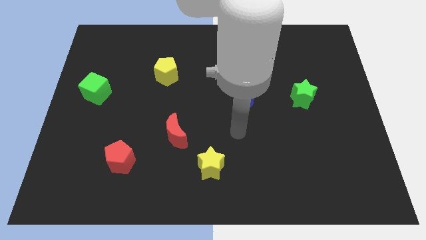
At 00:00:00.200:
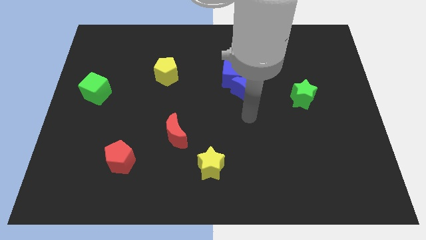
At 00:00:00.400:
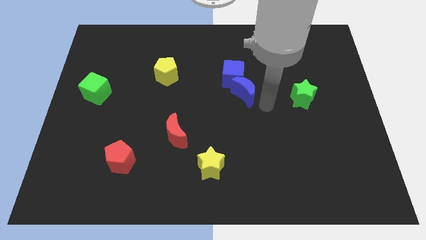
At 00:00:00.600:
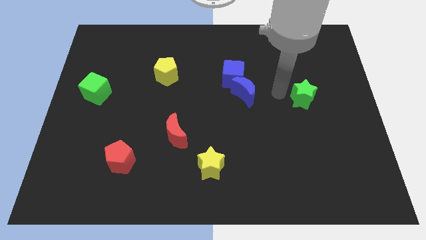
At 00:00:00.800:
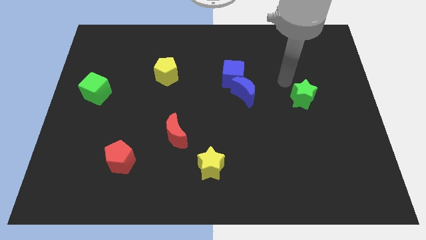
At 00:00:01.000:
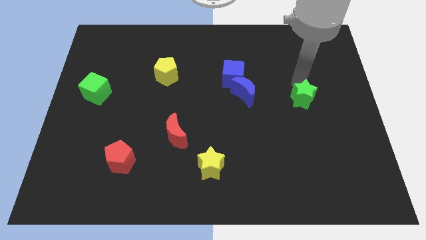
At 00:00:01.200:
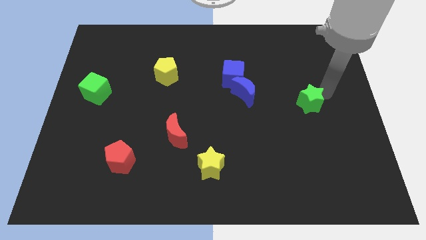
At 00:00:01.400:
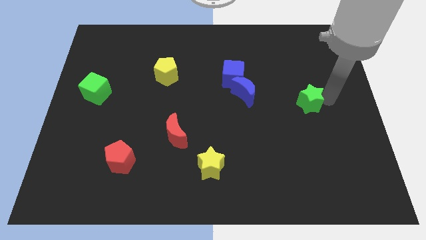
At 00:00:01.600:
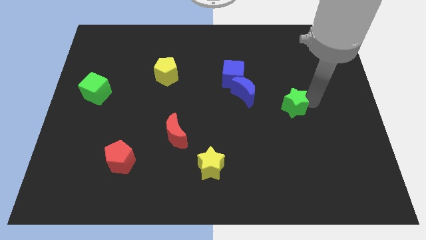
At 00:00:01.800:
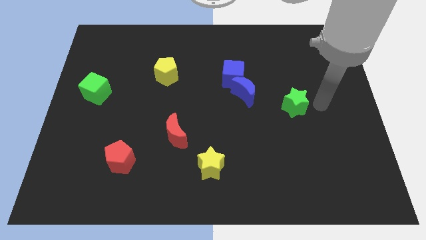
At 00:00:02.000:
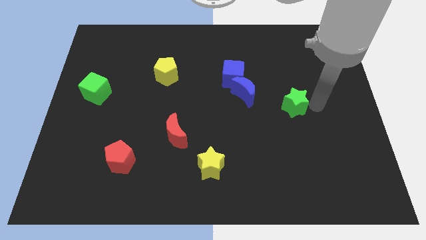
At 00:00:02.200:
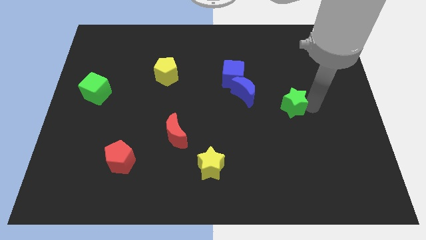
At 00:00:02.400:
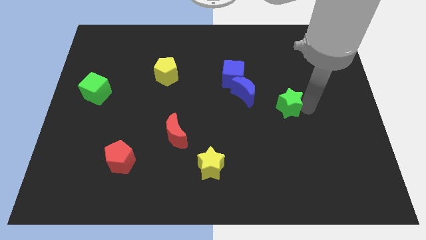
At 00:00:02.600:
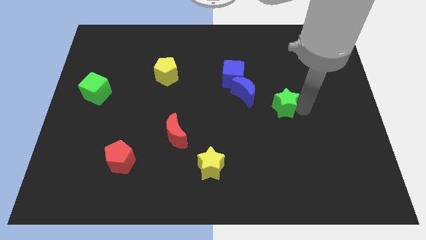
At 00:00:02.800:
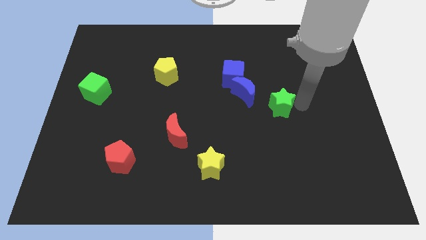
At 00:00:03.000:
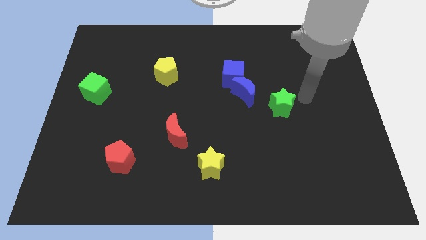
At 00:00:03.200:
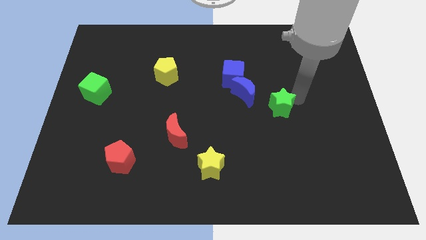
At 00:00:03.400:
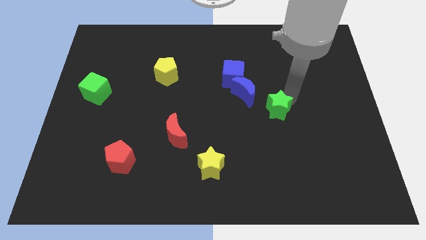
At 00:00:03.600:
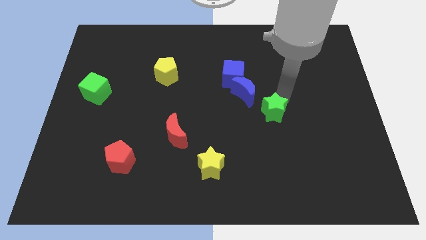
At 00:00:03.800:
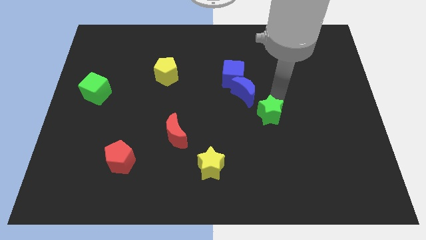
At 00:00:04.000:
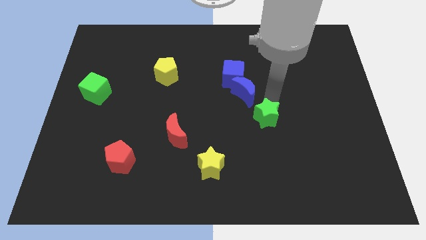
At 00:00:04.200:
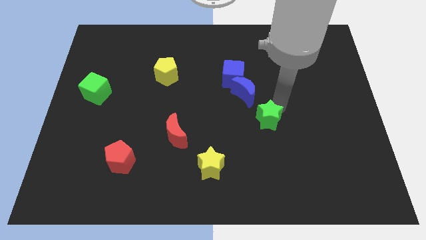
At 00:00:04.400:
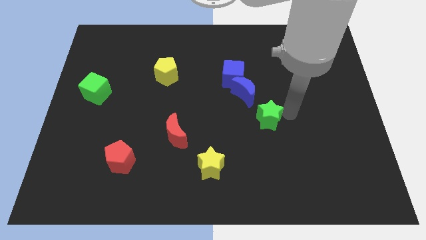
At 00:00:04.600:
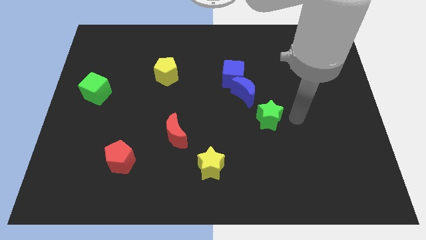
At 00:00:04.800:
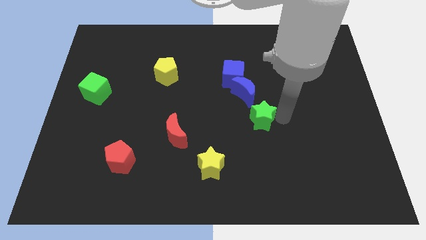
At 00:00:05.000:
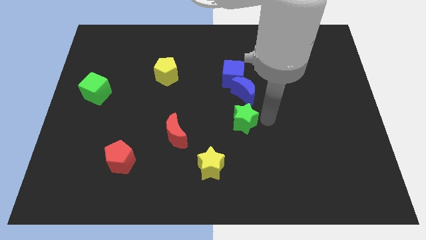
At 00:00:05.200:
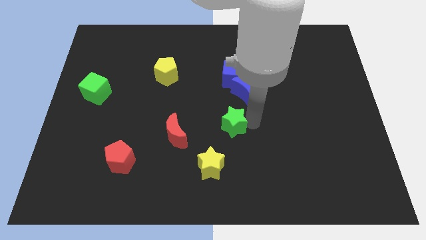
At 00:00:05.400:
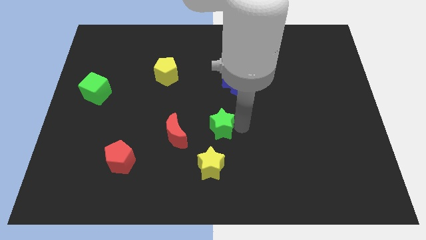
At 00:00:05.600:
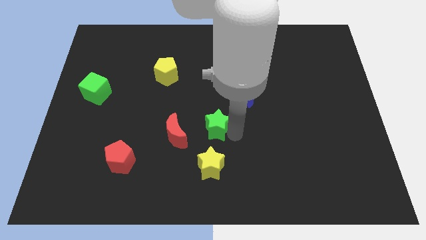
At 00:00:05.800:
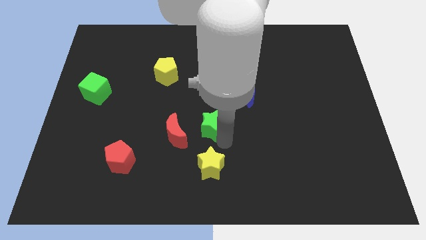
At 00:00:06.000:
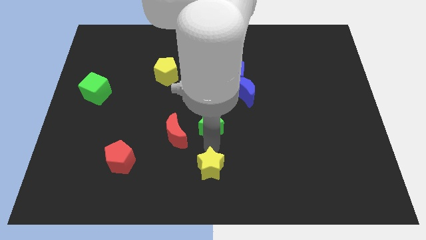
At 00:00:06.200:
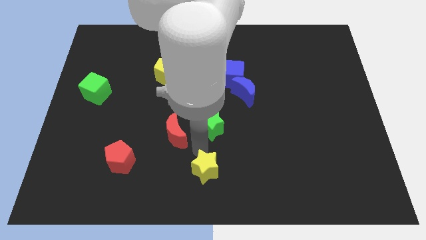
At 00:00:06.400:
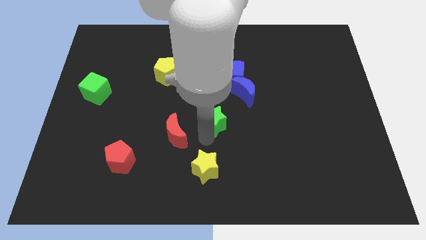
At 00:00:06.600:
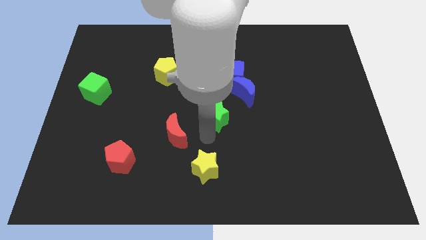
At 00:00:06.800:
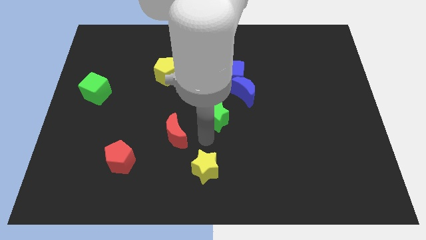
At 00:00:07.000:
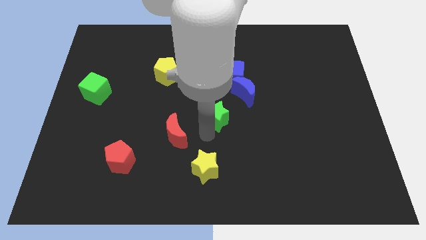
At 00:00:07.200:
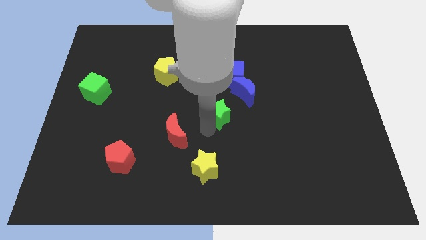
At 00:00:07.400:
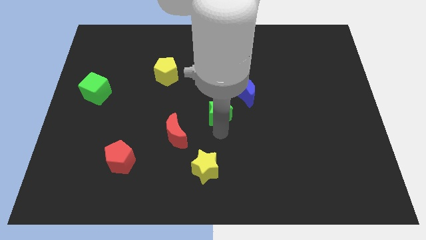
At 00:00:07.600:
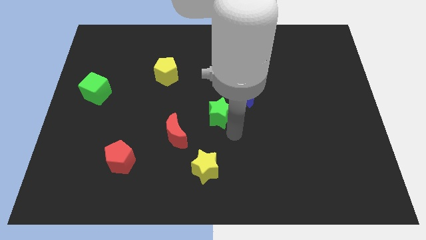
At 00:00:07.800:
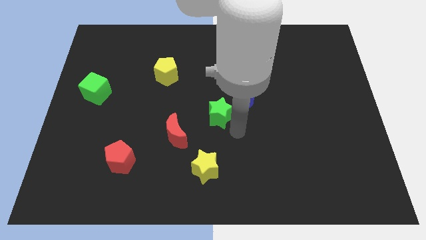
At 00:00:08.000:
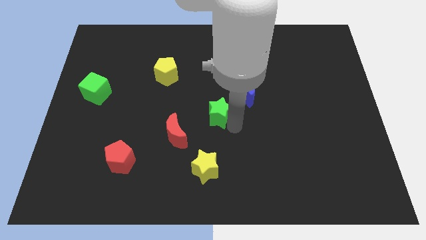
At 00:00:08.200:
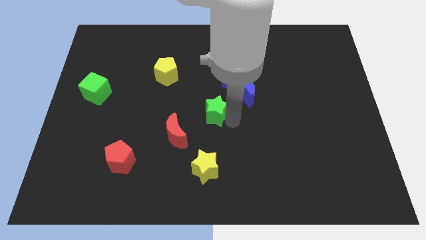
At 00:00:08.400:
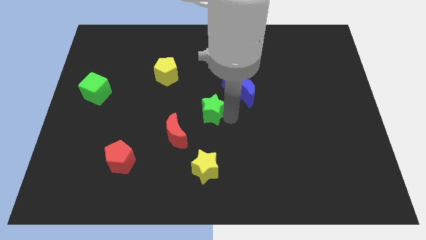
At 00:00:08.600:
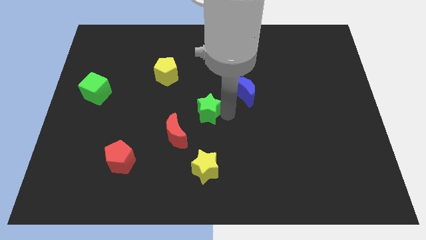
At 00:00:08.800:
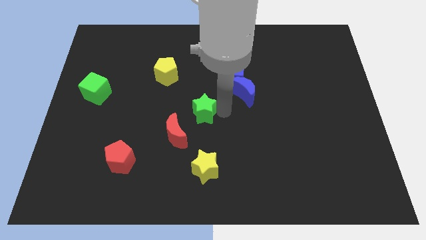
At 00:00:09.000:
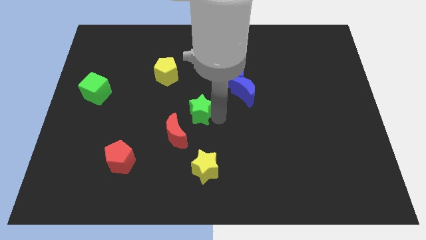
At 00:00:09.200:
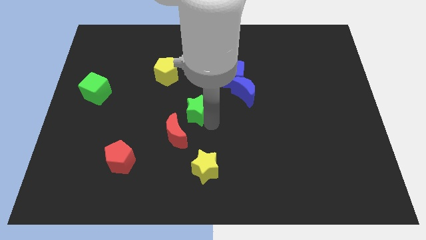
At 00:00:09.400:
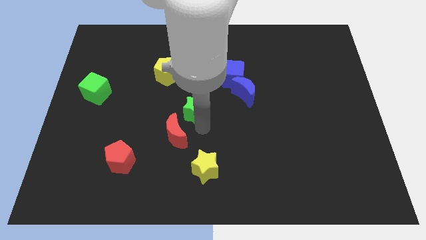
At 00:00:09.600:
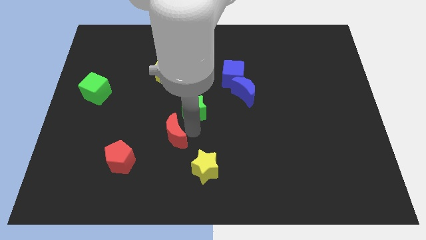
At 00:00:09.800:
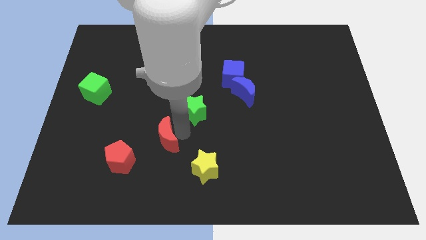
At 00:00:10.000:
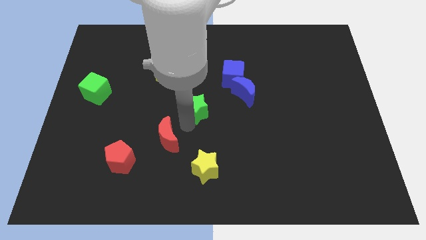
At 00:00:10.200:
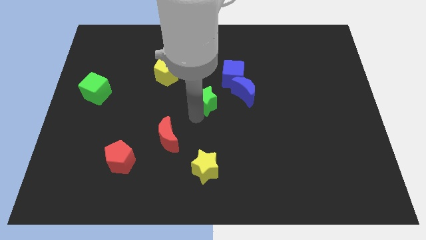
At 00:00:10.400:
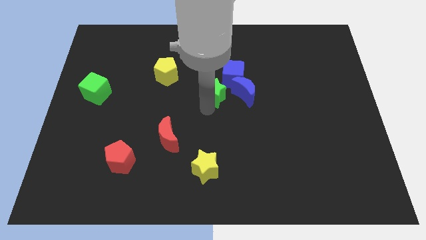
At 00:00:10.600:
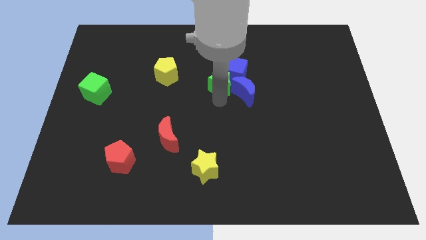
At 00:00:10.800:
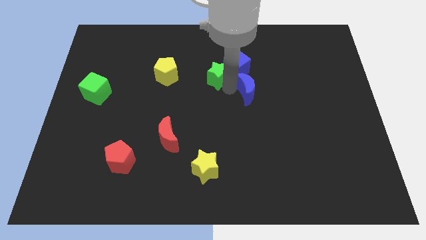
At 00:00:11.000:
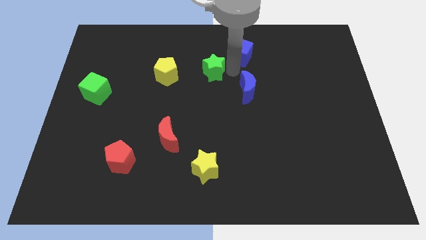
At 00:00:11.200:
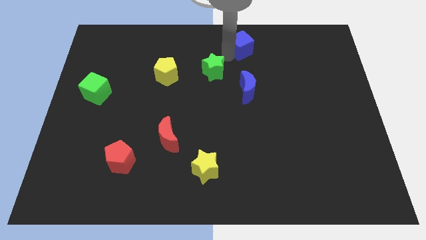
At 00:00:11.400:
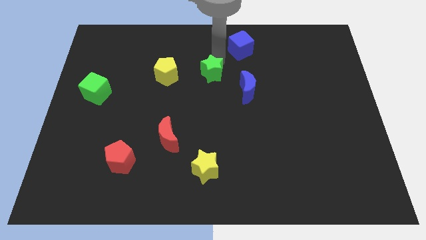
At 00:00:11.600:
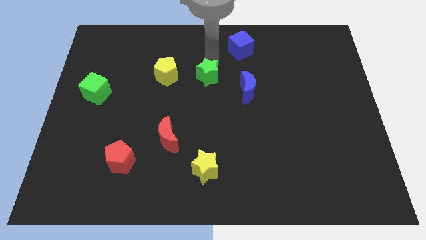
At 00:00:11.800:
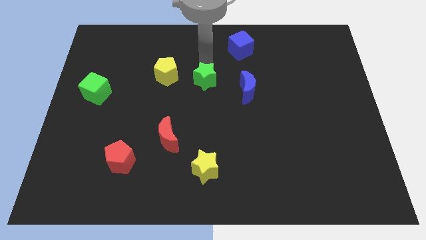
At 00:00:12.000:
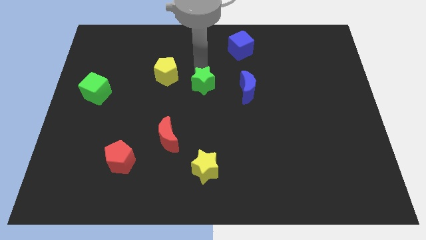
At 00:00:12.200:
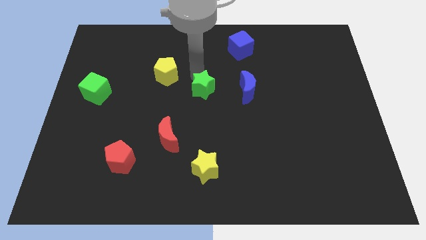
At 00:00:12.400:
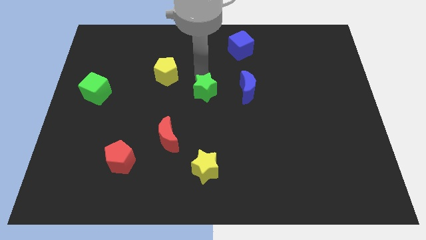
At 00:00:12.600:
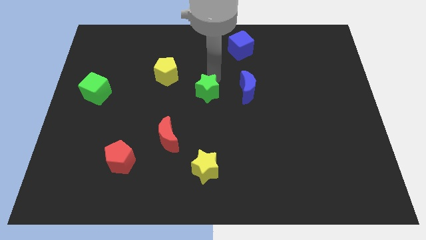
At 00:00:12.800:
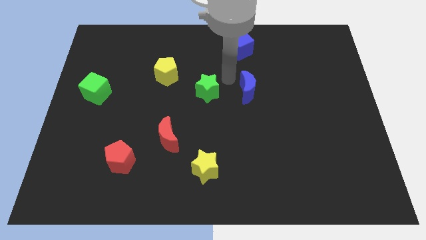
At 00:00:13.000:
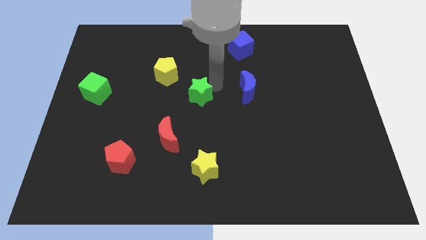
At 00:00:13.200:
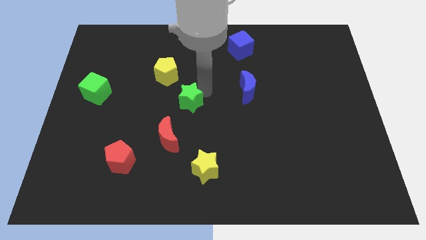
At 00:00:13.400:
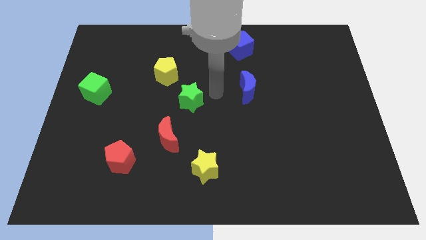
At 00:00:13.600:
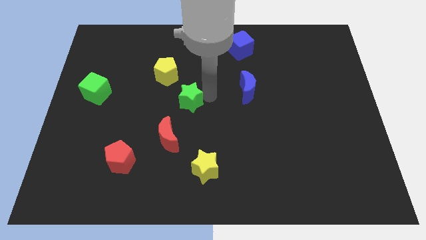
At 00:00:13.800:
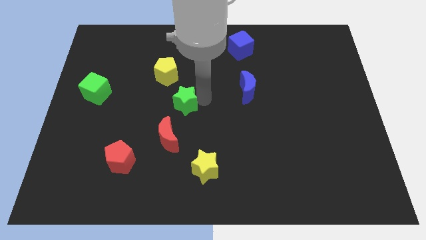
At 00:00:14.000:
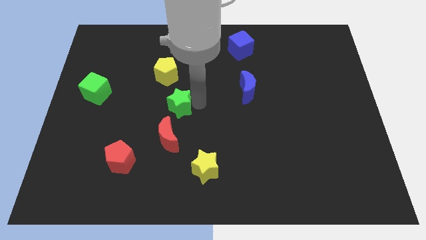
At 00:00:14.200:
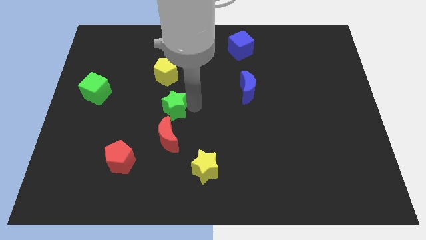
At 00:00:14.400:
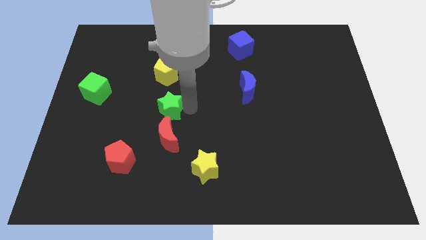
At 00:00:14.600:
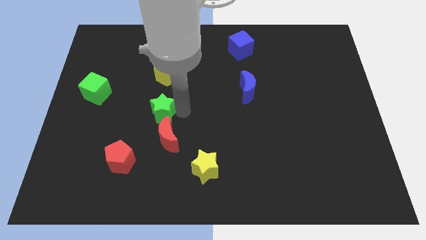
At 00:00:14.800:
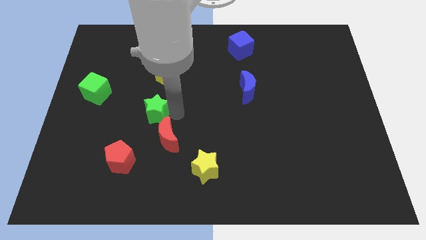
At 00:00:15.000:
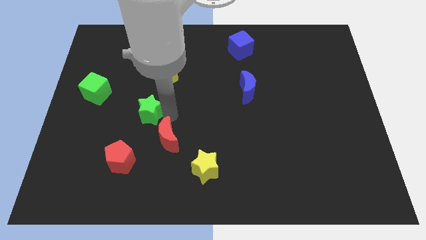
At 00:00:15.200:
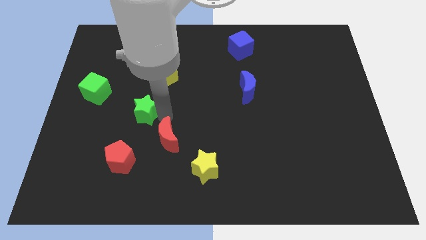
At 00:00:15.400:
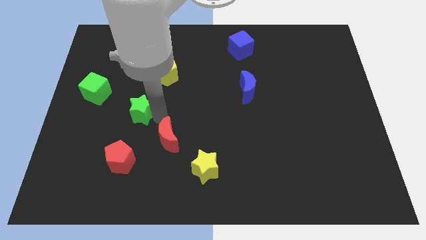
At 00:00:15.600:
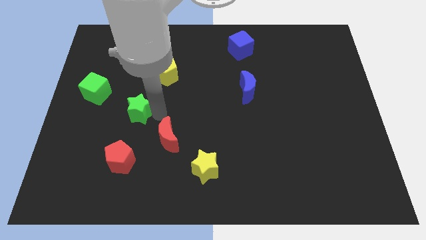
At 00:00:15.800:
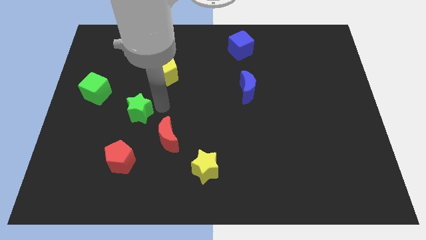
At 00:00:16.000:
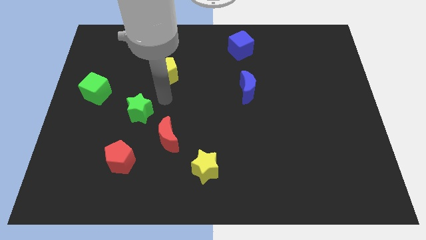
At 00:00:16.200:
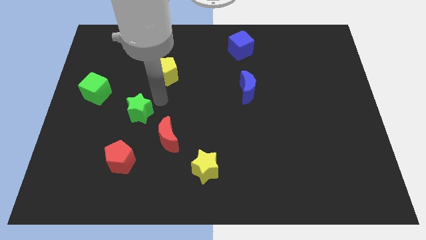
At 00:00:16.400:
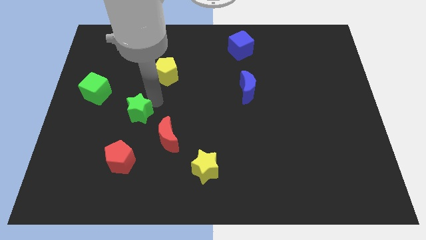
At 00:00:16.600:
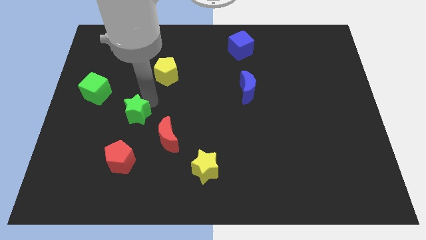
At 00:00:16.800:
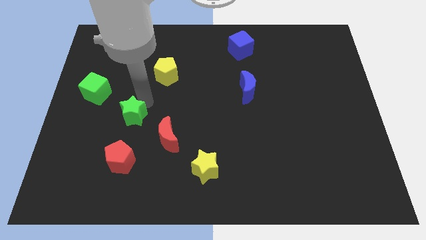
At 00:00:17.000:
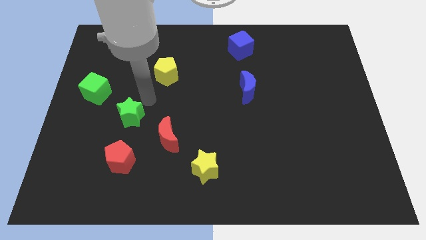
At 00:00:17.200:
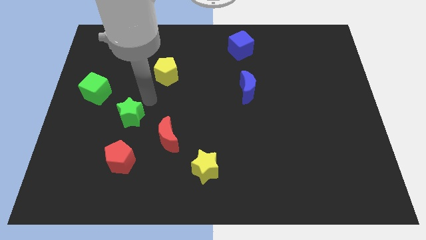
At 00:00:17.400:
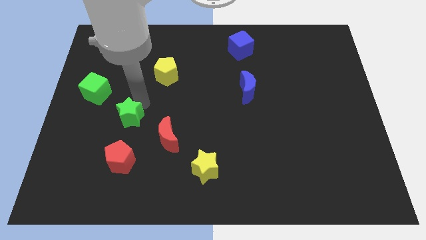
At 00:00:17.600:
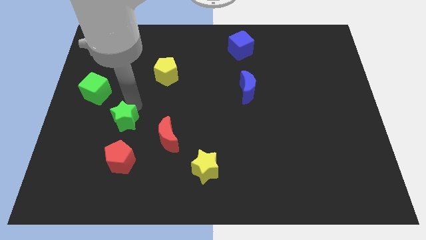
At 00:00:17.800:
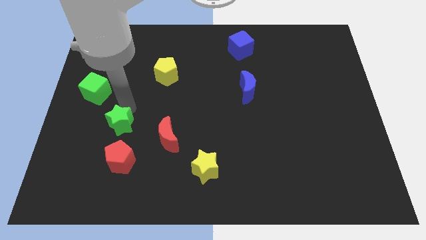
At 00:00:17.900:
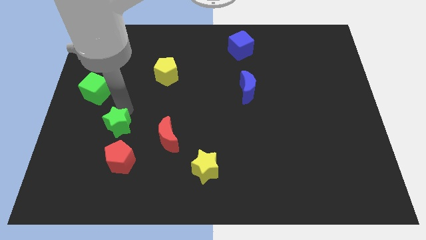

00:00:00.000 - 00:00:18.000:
move the green star diagonally up and to the left of the red pentagon
